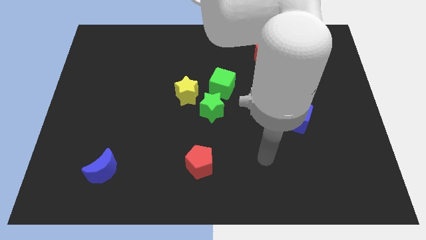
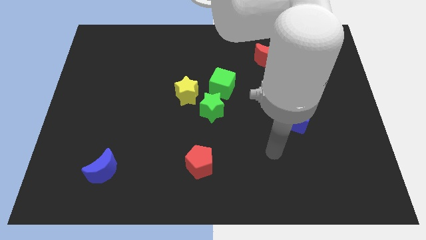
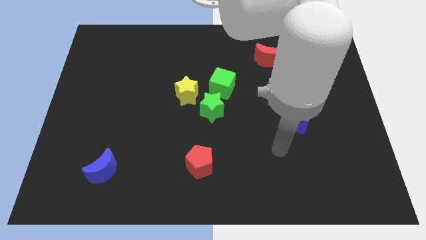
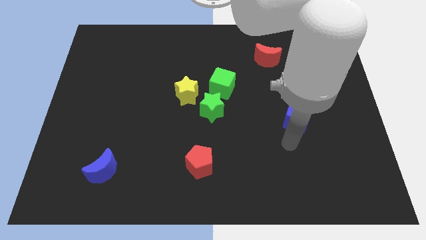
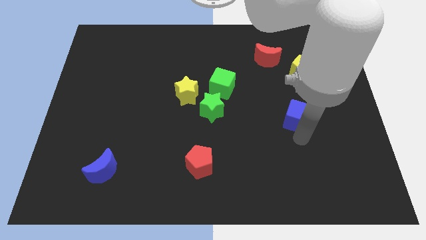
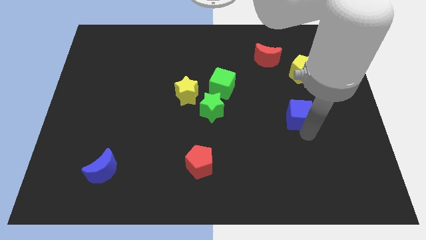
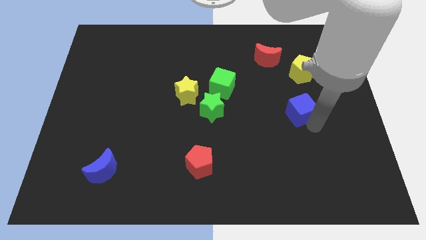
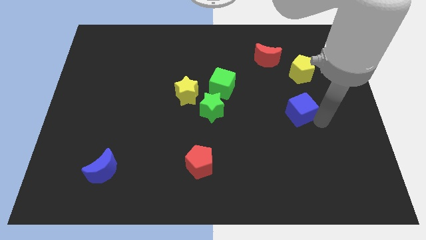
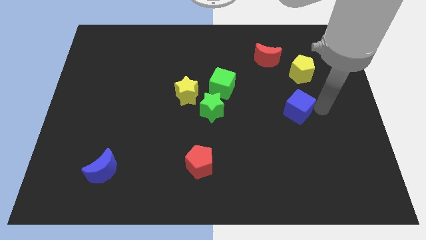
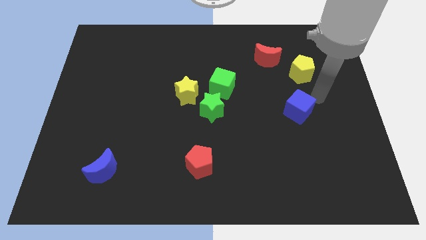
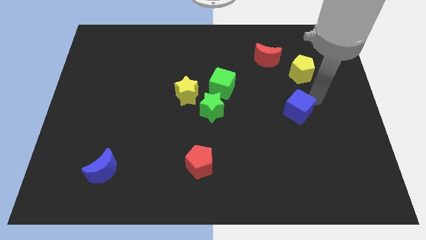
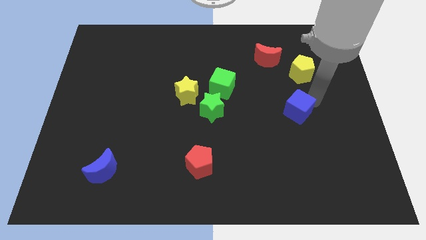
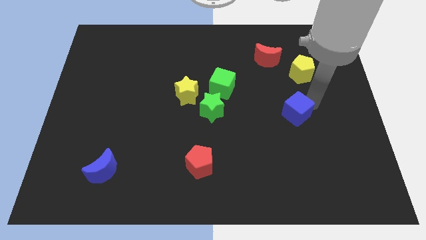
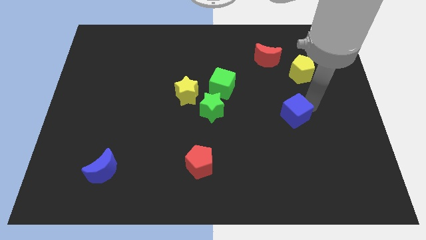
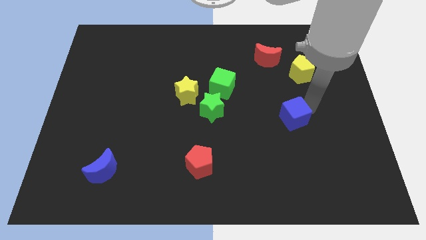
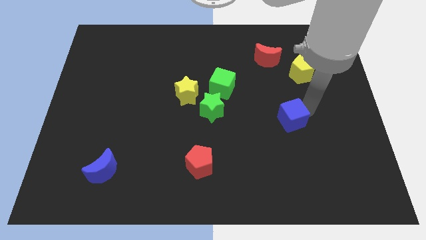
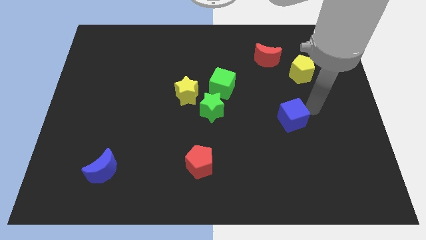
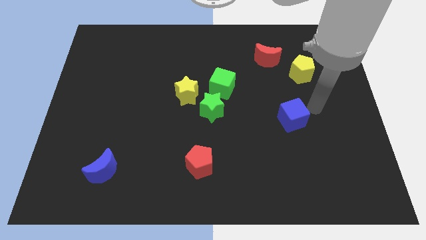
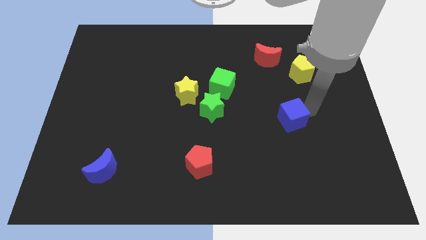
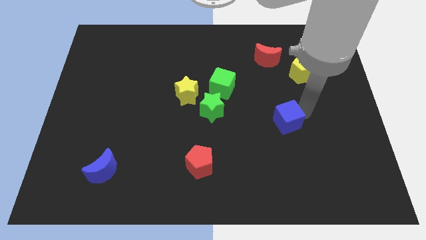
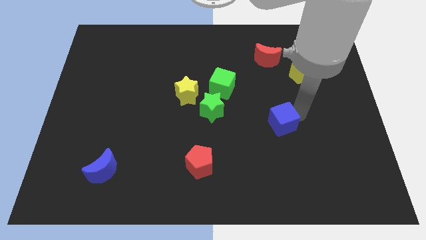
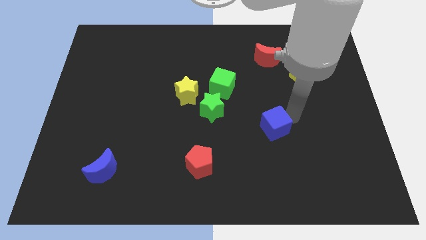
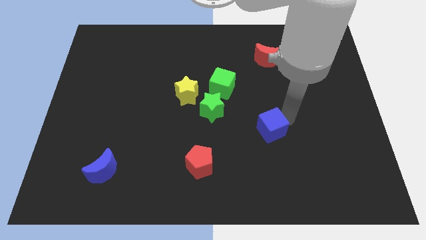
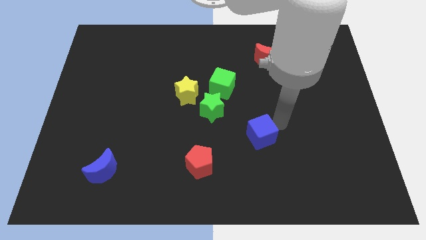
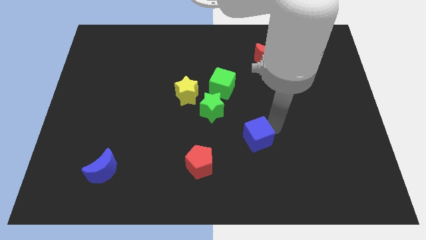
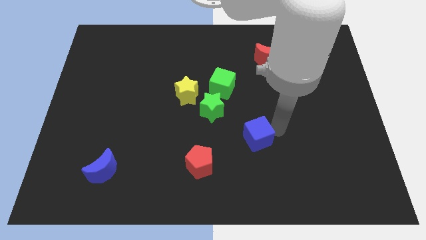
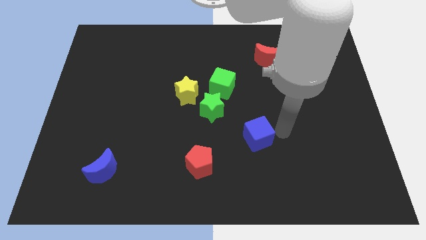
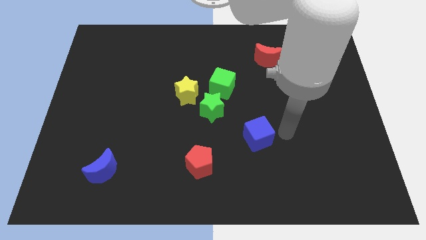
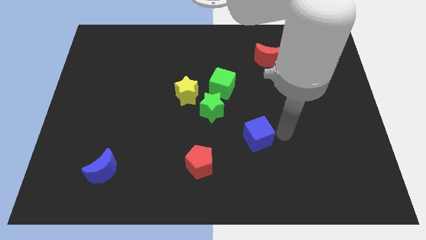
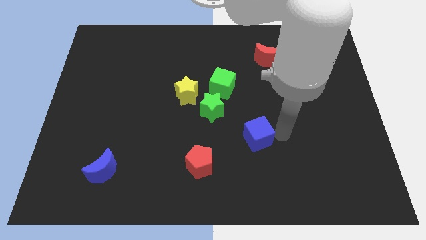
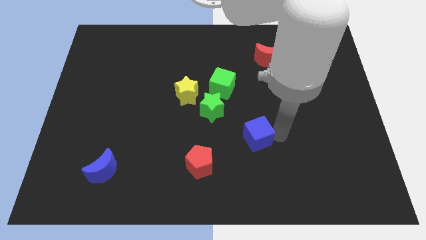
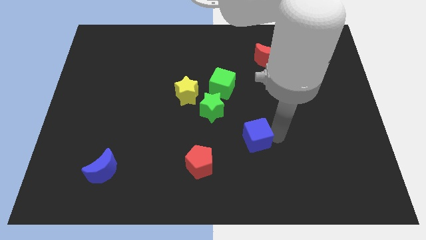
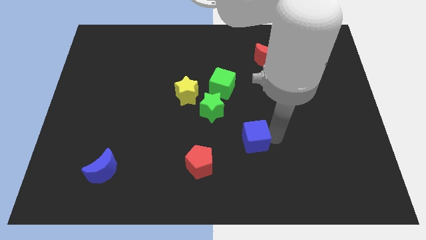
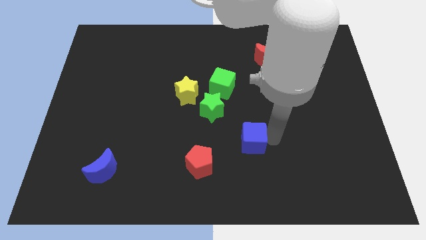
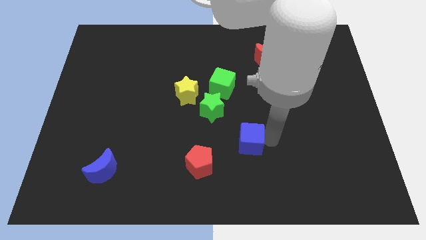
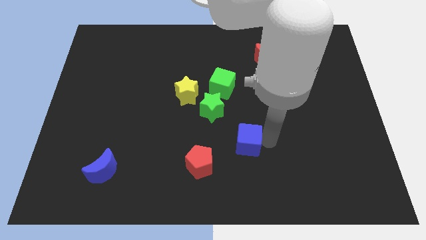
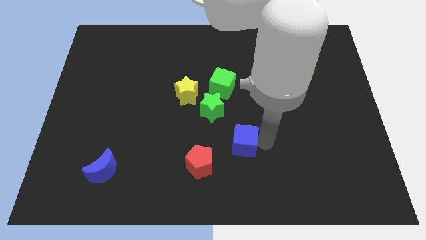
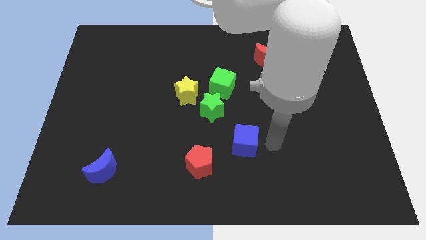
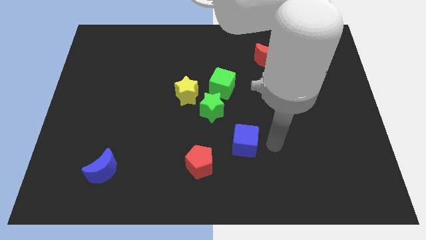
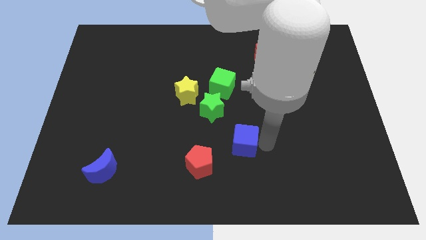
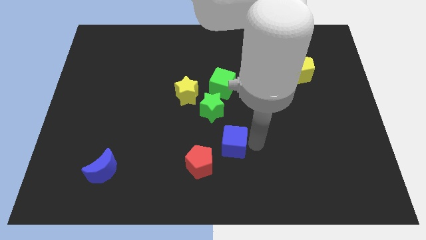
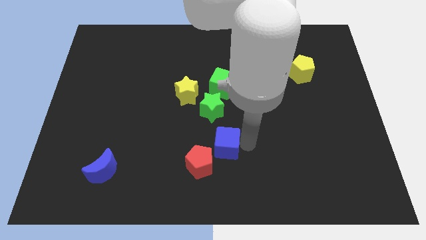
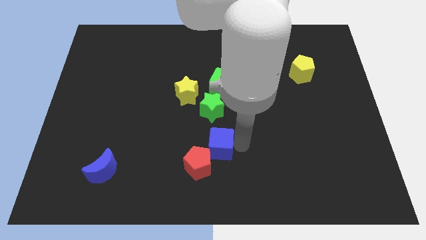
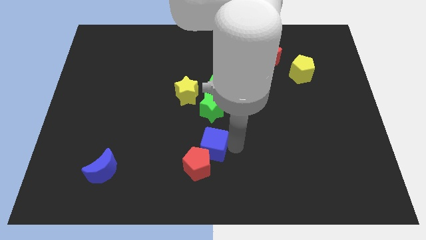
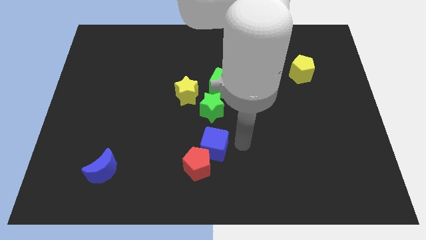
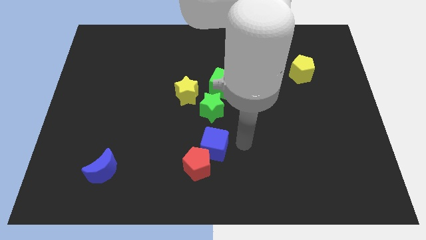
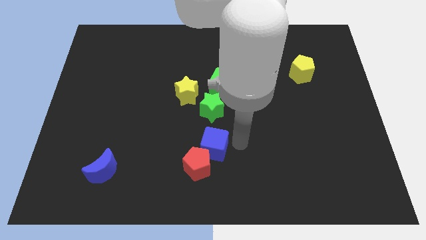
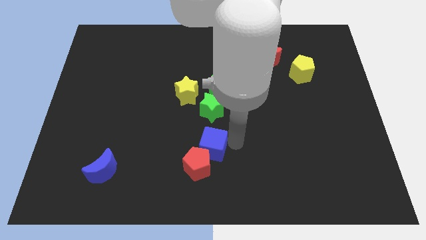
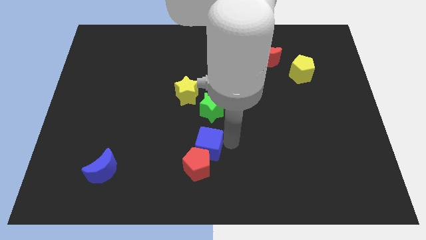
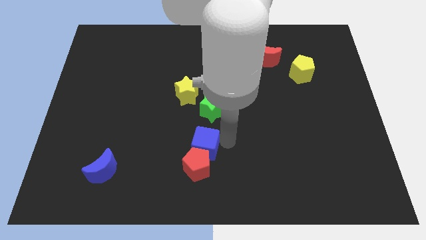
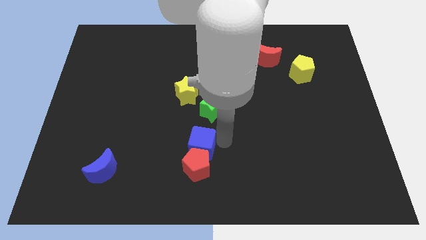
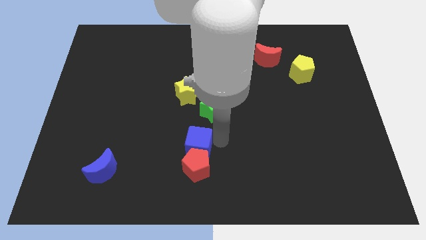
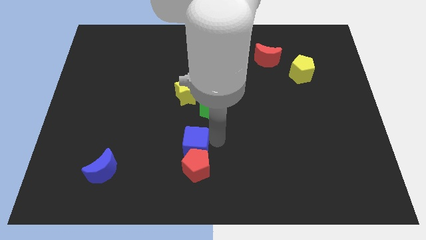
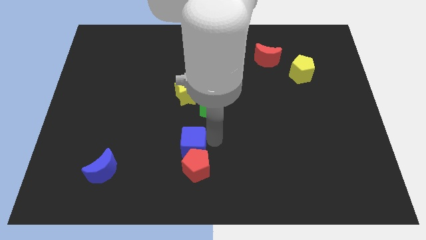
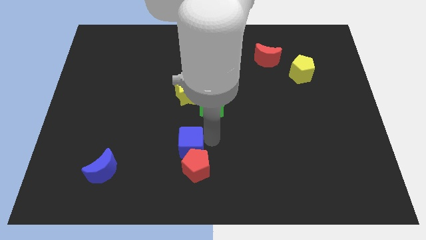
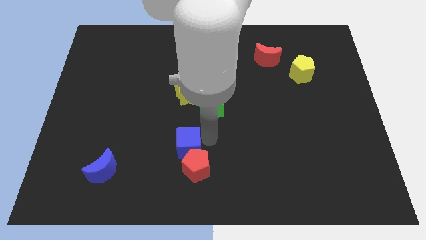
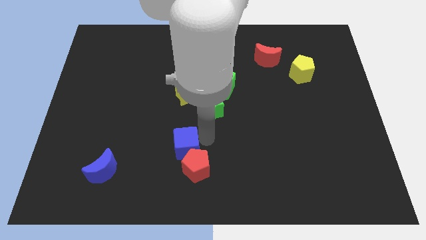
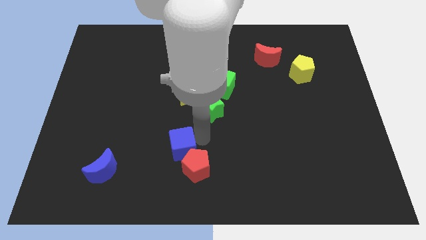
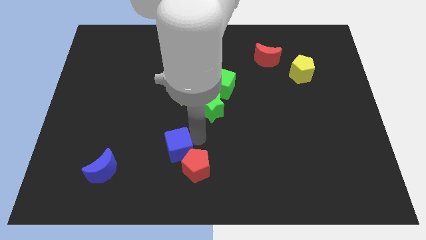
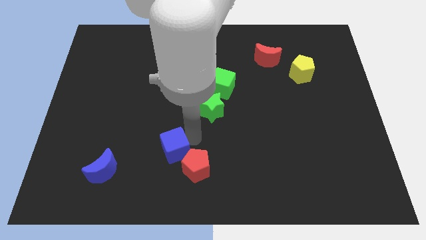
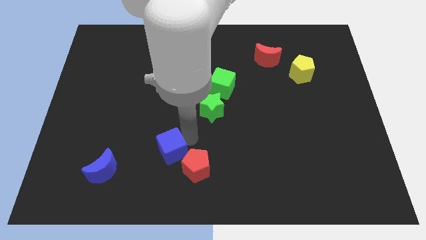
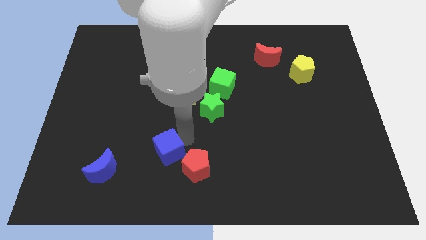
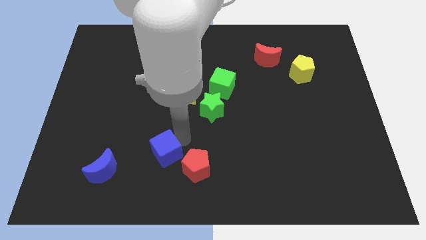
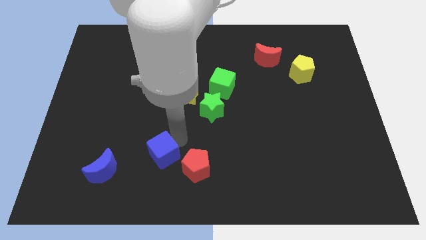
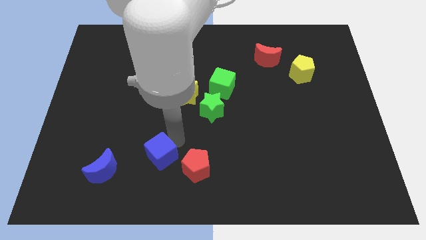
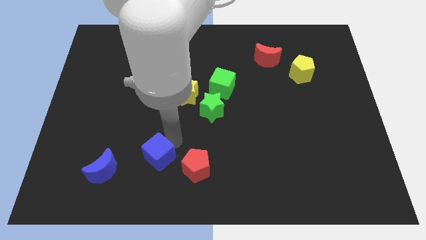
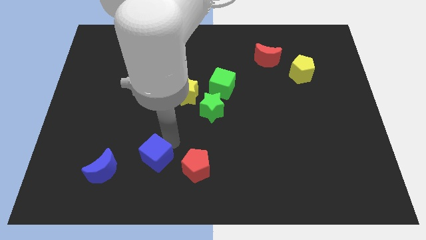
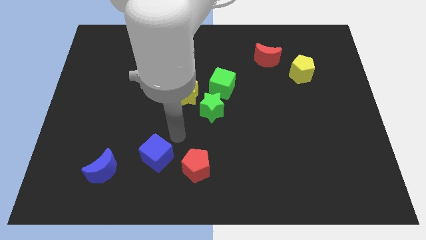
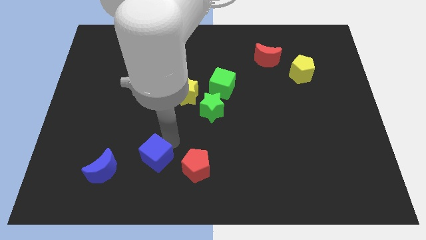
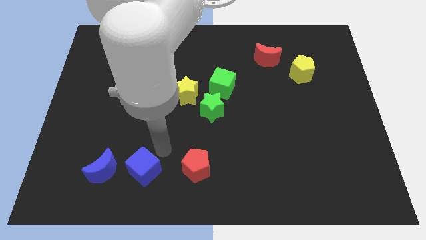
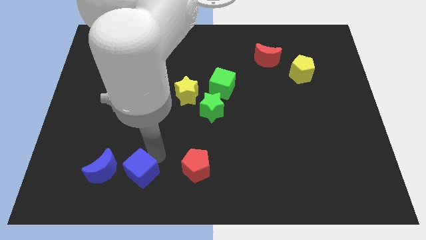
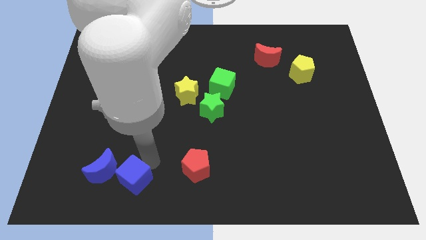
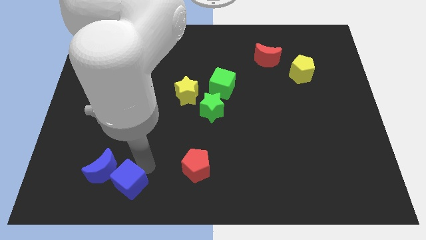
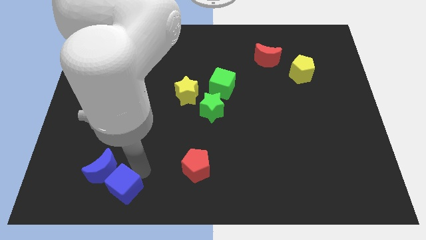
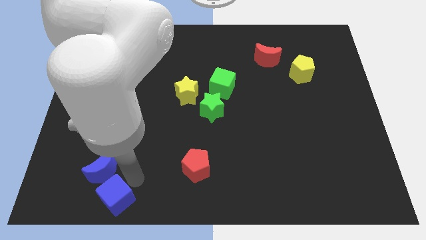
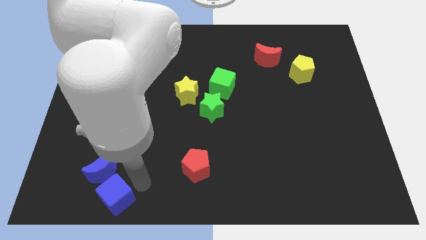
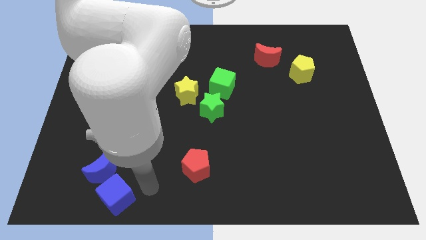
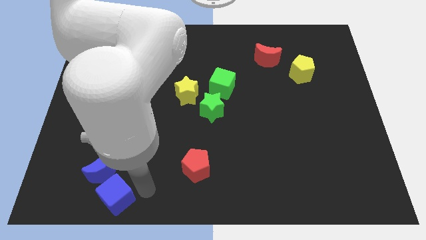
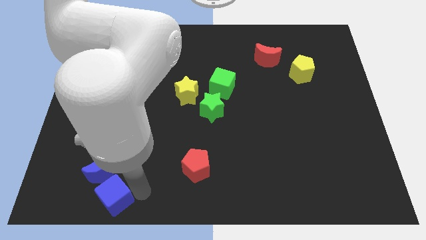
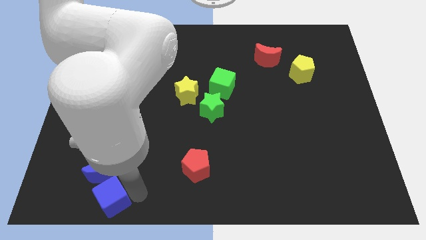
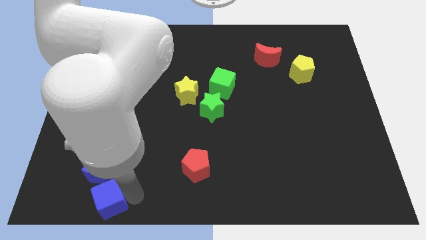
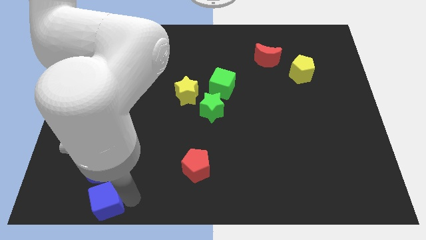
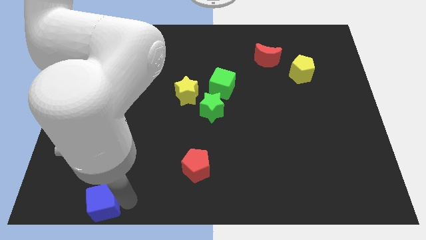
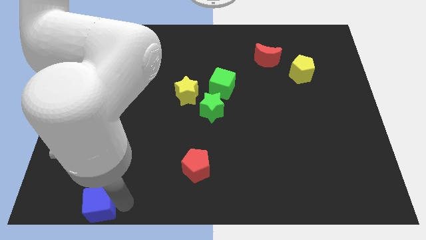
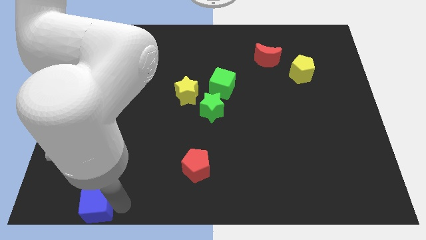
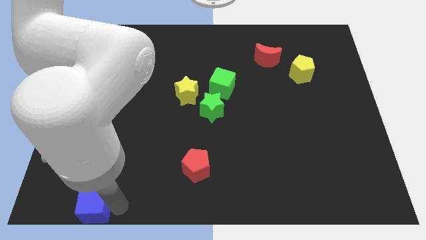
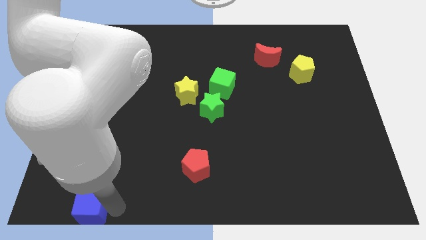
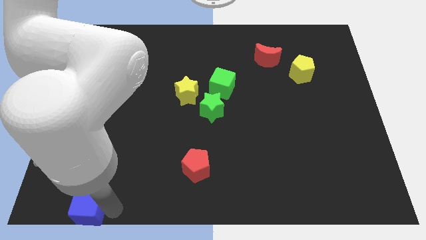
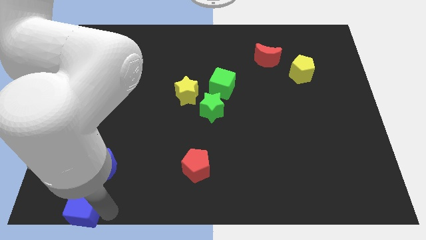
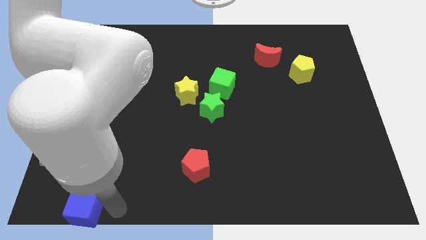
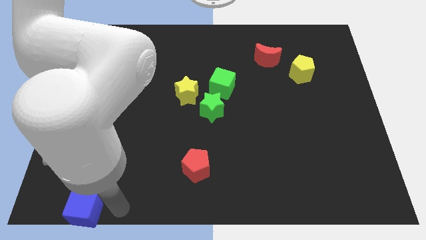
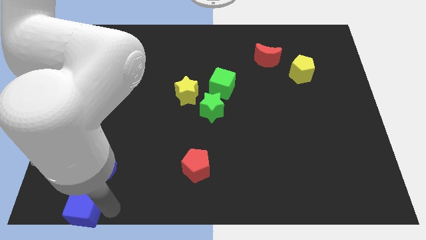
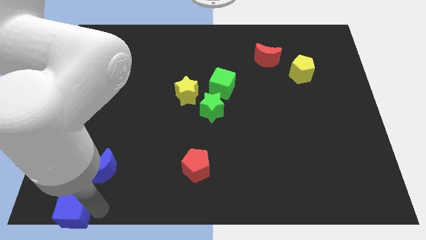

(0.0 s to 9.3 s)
put the blue cube to the bottom left corner
